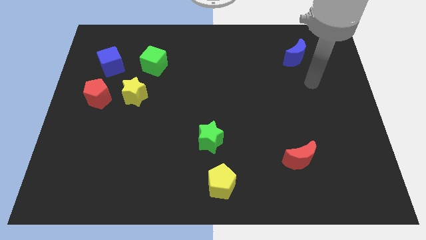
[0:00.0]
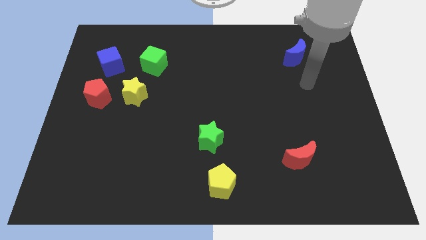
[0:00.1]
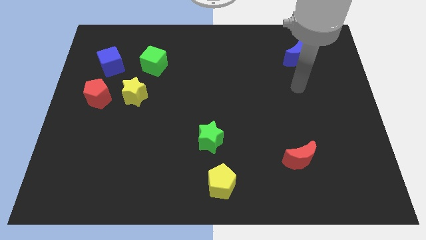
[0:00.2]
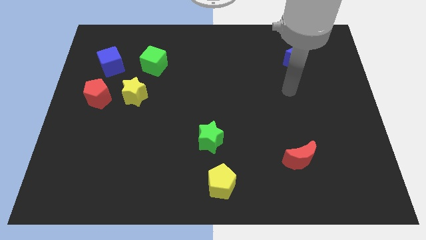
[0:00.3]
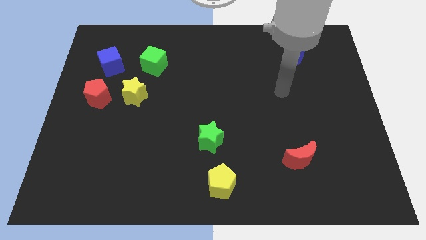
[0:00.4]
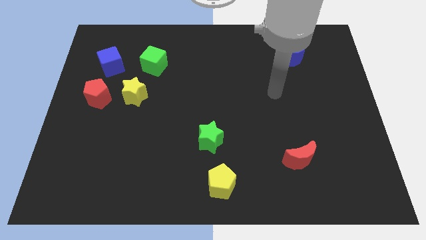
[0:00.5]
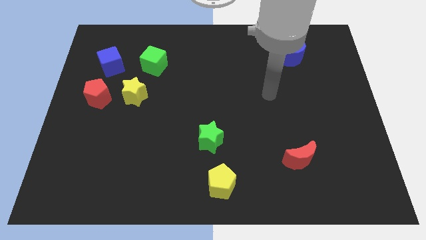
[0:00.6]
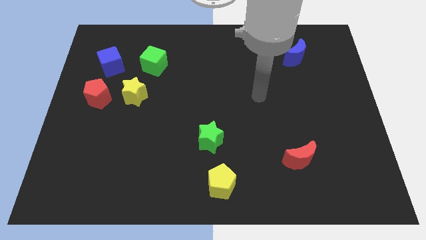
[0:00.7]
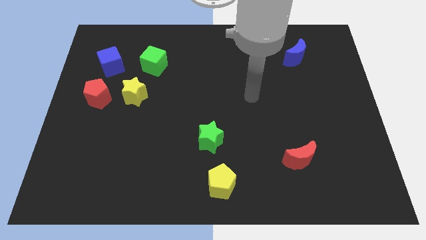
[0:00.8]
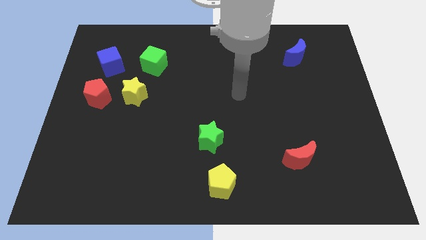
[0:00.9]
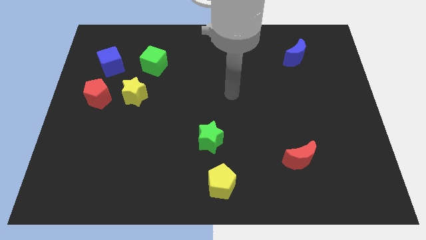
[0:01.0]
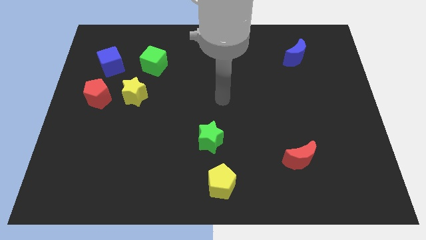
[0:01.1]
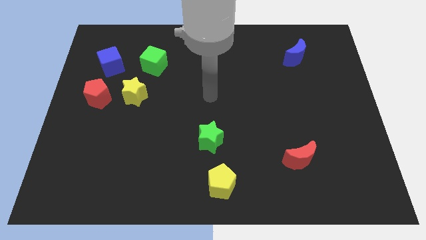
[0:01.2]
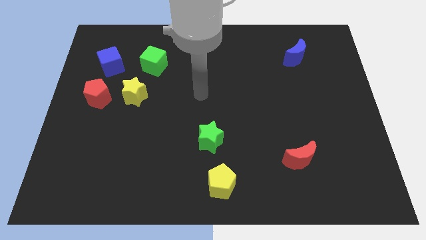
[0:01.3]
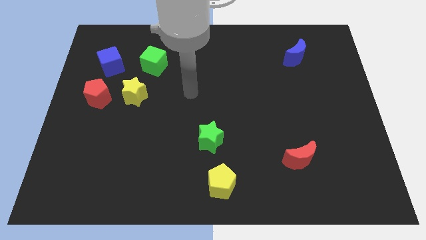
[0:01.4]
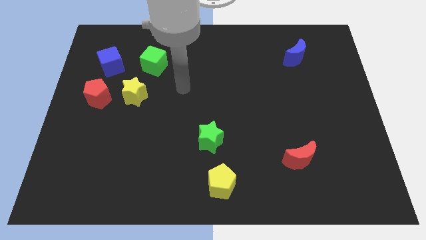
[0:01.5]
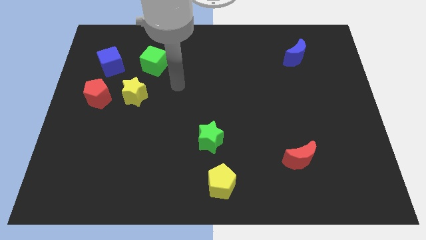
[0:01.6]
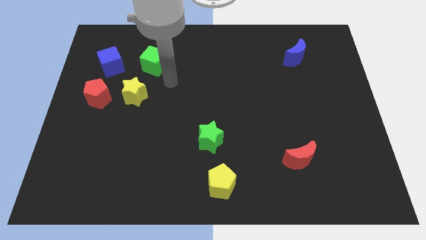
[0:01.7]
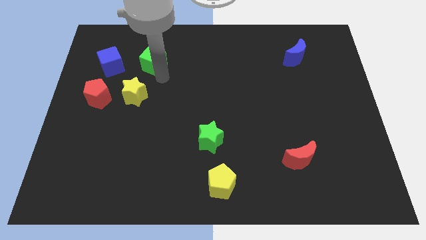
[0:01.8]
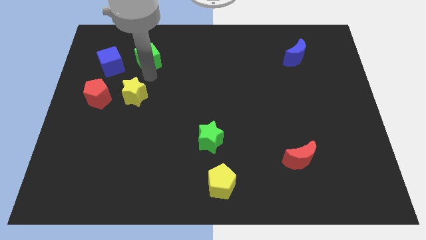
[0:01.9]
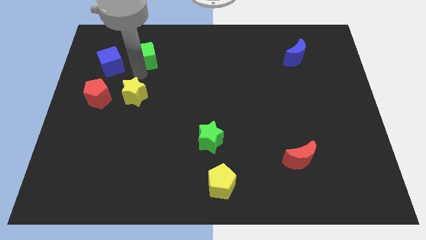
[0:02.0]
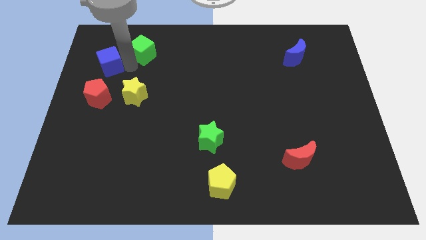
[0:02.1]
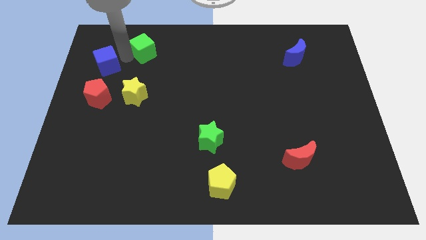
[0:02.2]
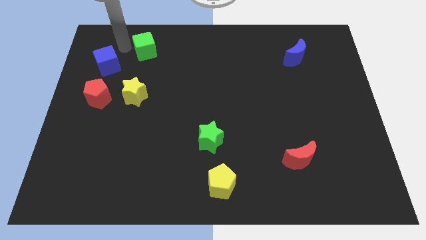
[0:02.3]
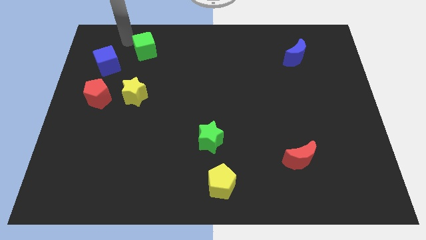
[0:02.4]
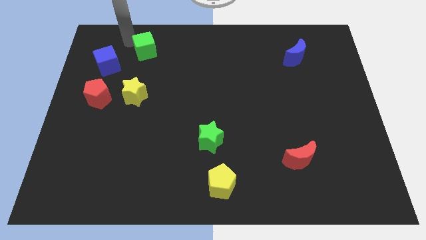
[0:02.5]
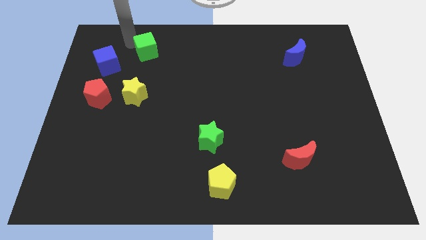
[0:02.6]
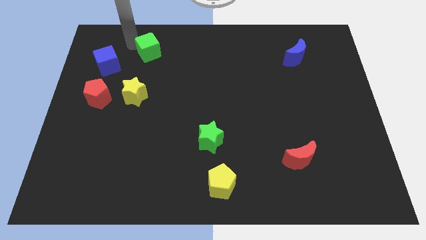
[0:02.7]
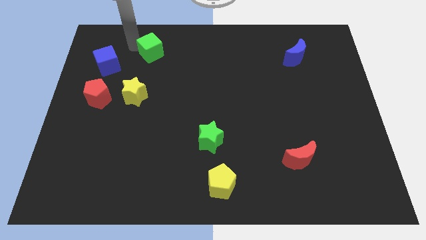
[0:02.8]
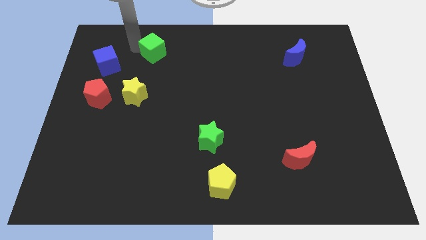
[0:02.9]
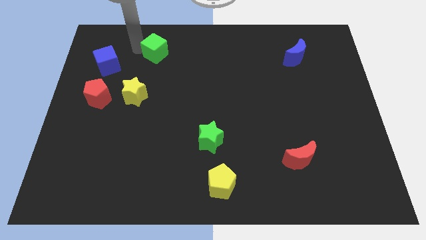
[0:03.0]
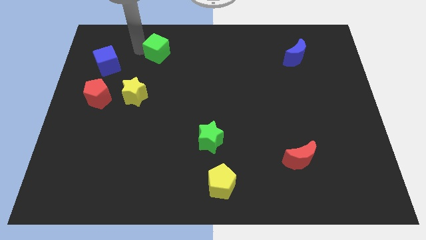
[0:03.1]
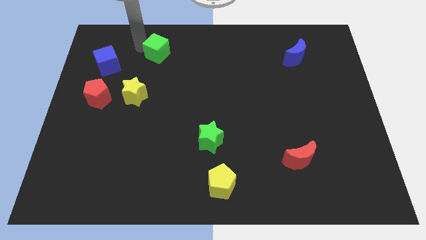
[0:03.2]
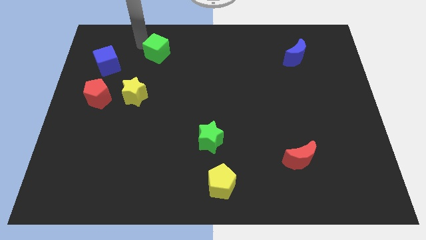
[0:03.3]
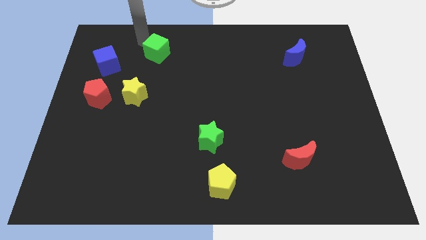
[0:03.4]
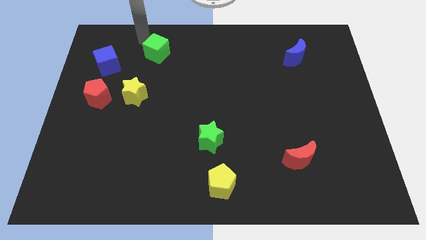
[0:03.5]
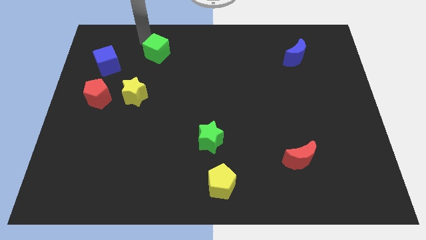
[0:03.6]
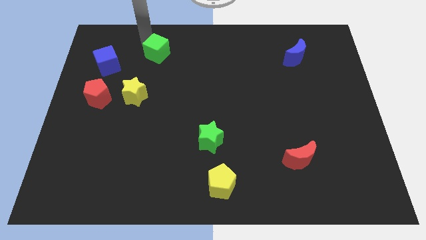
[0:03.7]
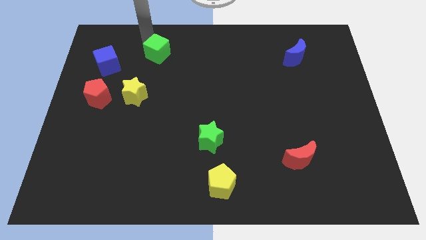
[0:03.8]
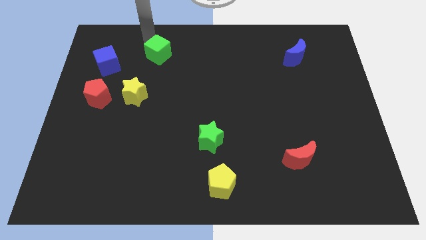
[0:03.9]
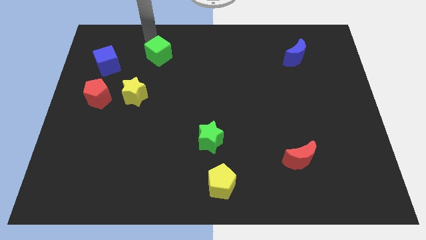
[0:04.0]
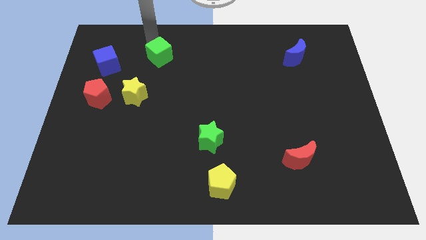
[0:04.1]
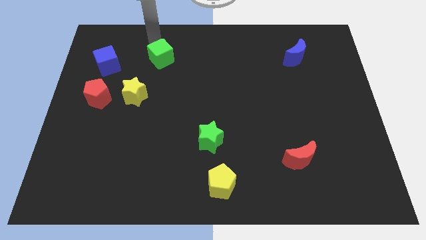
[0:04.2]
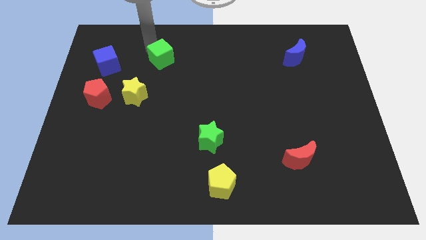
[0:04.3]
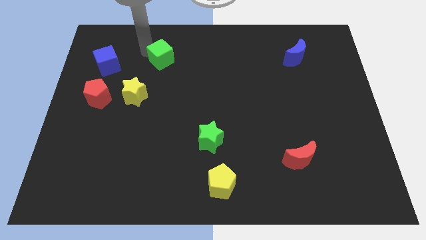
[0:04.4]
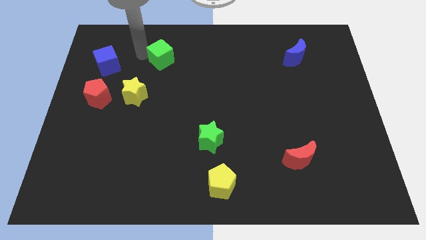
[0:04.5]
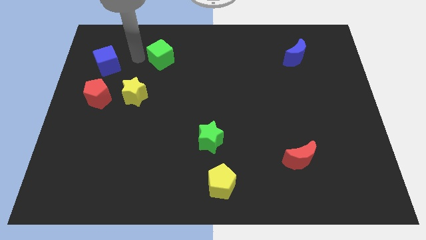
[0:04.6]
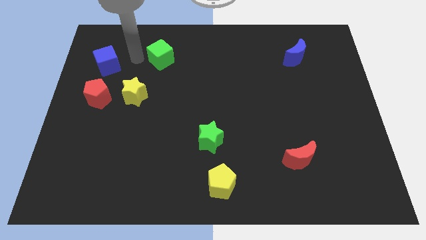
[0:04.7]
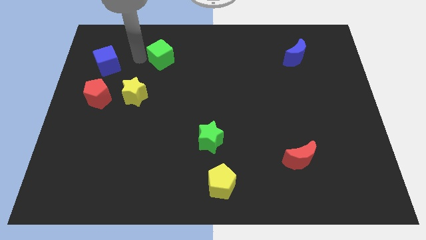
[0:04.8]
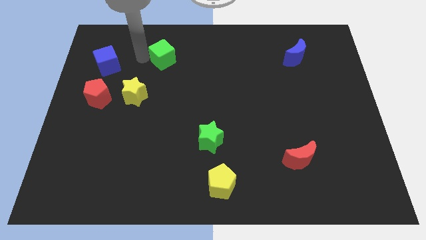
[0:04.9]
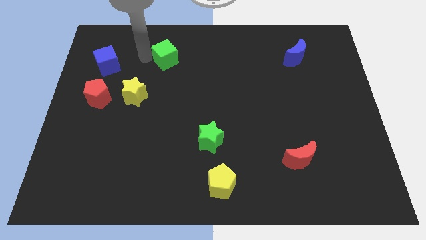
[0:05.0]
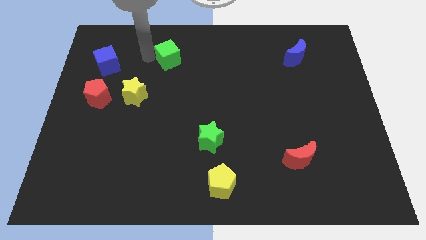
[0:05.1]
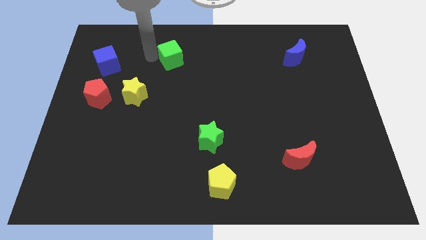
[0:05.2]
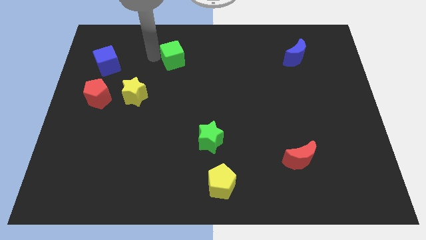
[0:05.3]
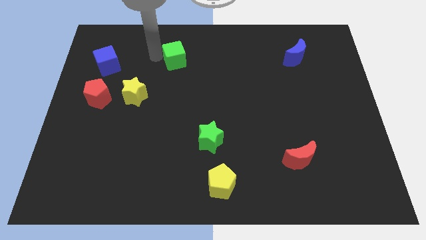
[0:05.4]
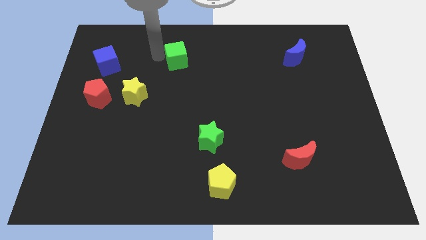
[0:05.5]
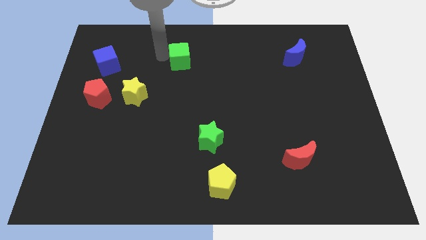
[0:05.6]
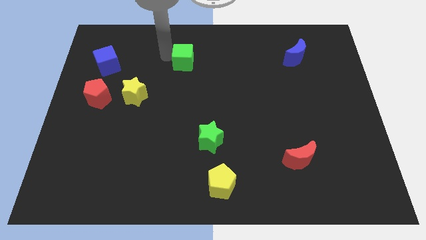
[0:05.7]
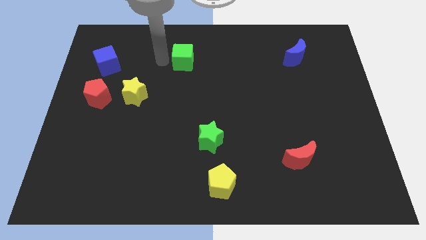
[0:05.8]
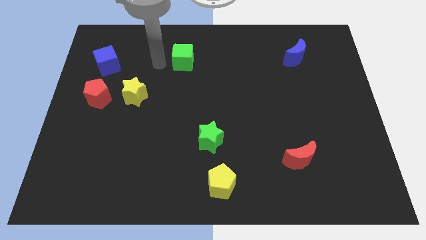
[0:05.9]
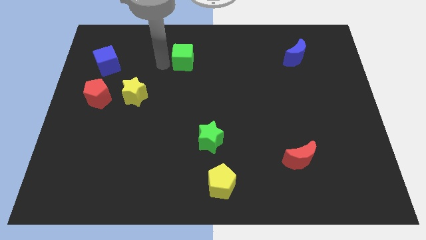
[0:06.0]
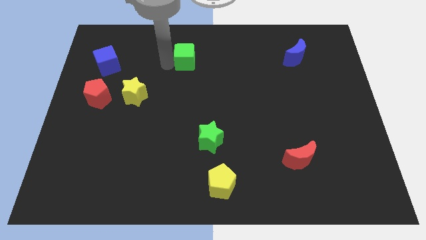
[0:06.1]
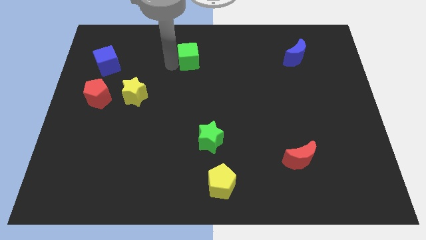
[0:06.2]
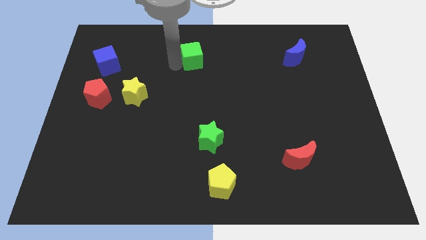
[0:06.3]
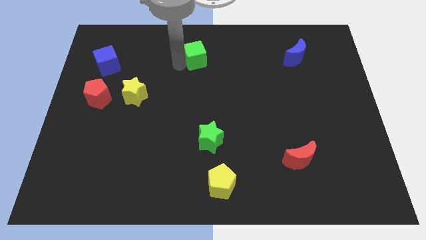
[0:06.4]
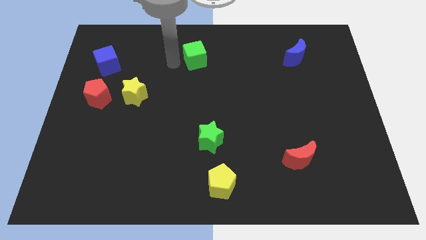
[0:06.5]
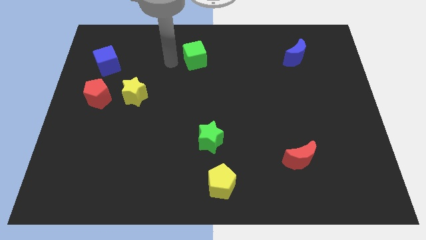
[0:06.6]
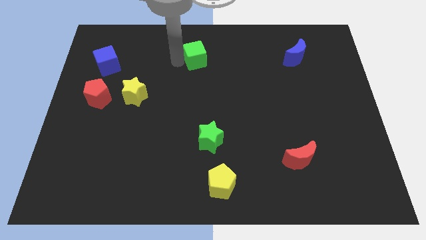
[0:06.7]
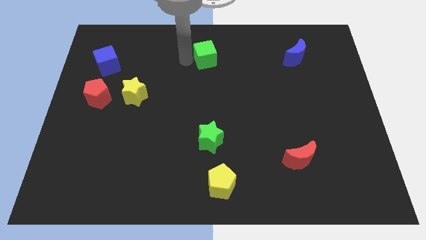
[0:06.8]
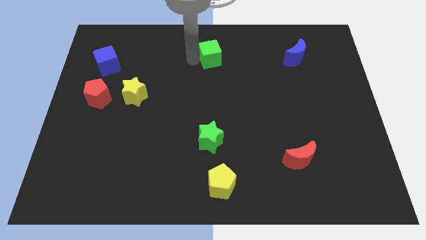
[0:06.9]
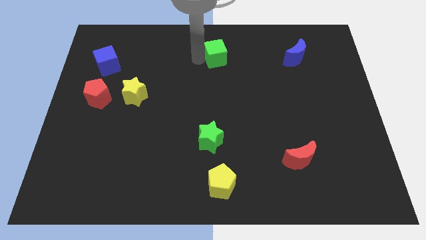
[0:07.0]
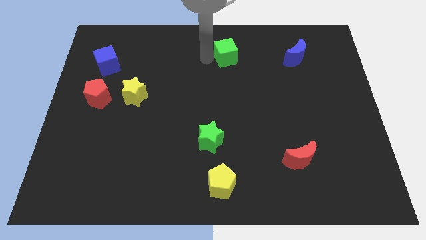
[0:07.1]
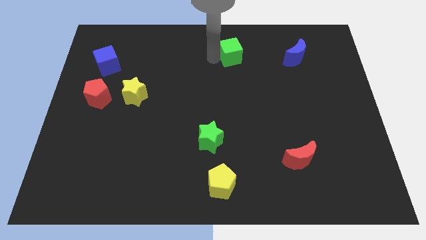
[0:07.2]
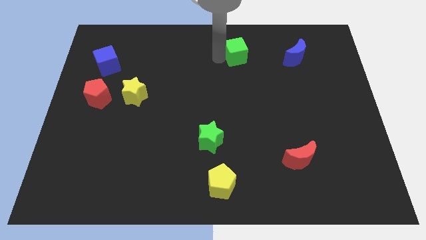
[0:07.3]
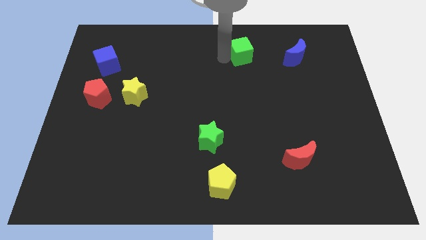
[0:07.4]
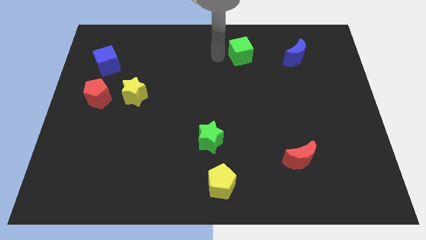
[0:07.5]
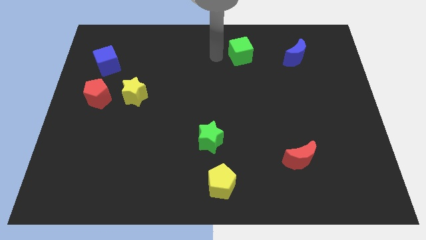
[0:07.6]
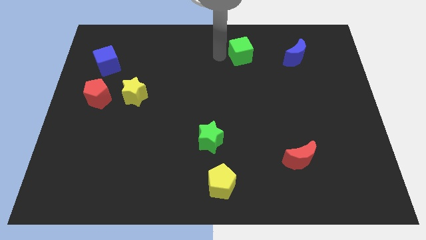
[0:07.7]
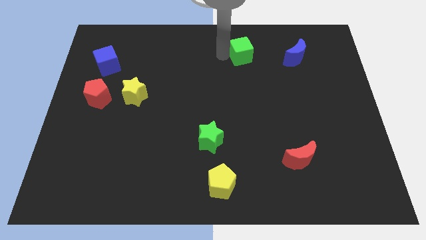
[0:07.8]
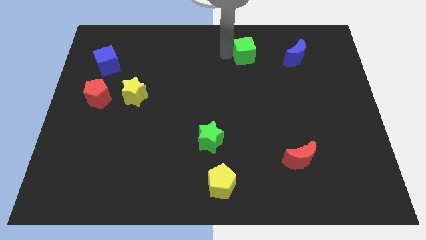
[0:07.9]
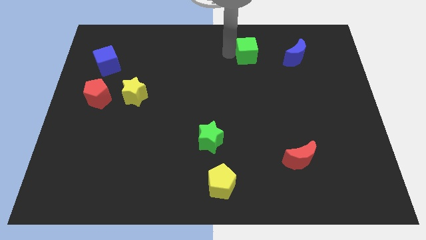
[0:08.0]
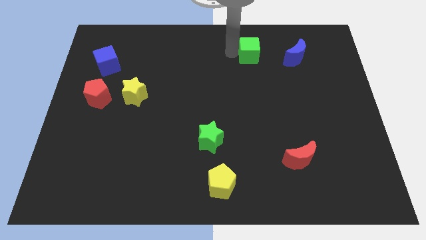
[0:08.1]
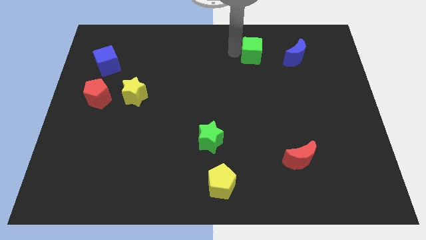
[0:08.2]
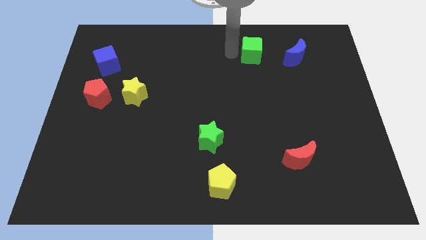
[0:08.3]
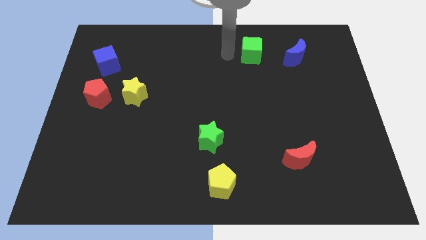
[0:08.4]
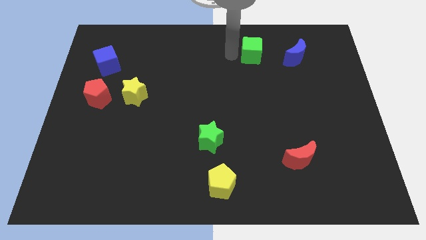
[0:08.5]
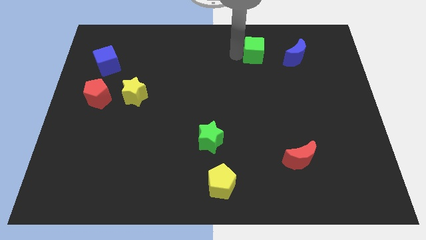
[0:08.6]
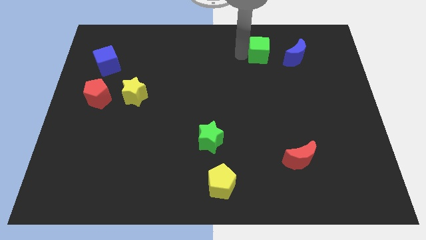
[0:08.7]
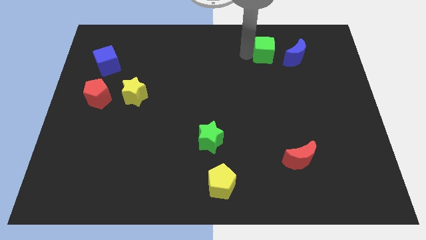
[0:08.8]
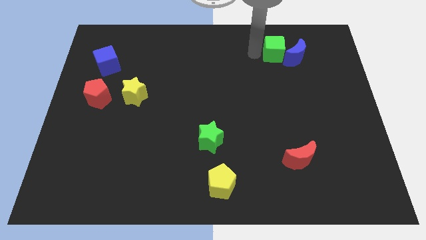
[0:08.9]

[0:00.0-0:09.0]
slide the green cube close to the blue moon
